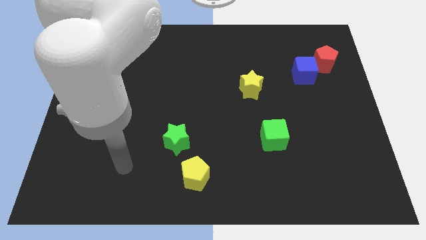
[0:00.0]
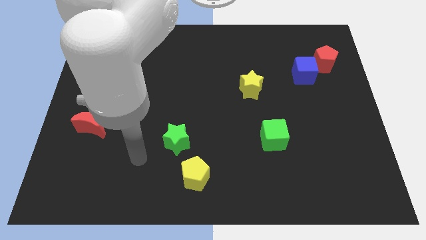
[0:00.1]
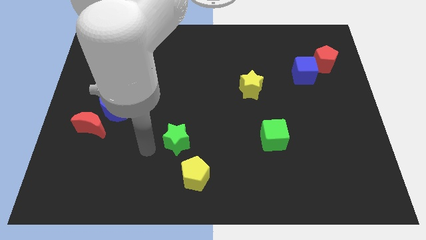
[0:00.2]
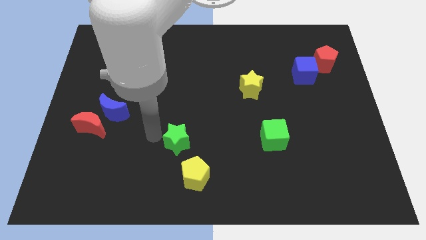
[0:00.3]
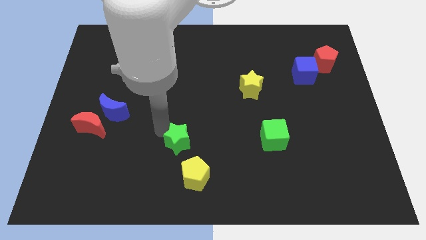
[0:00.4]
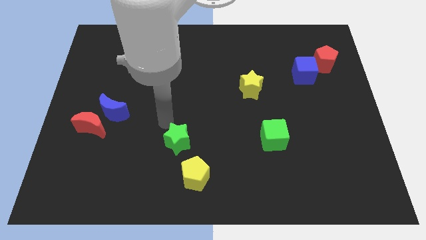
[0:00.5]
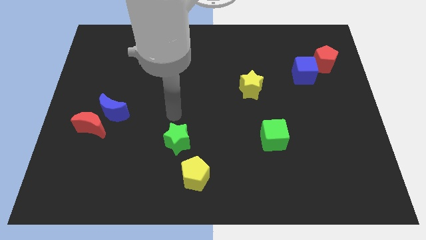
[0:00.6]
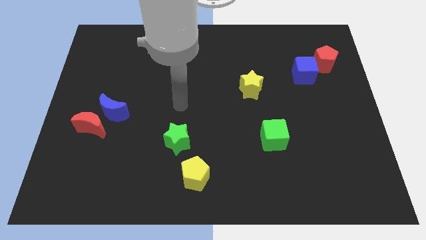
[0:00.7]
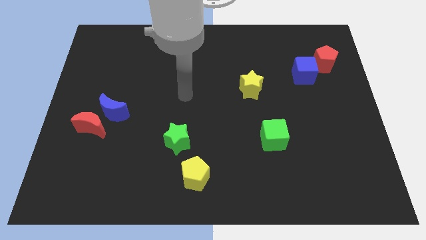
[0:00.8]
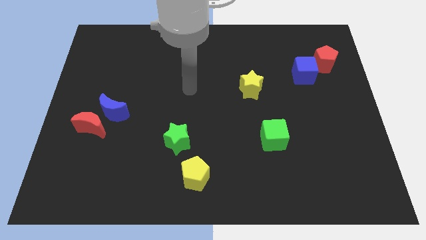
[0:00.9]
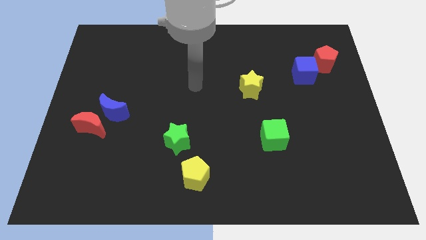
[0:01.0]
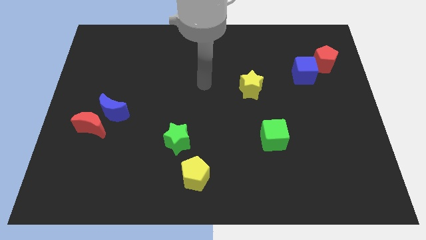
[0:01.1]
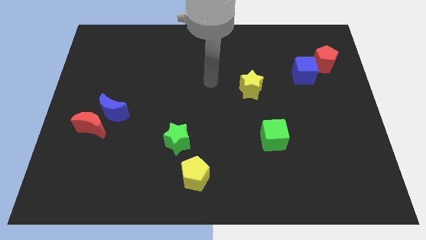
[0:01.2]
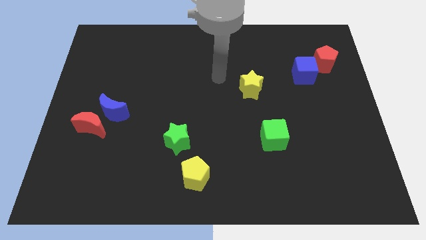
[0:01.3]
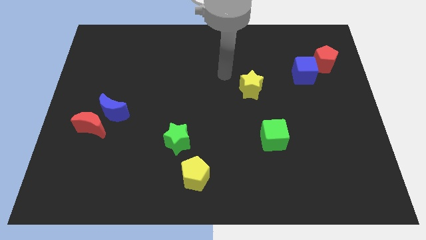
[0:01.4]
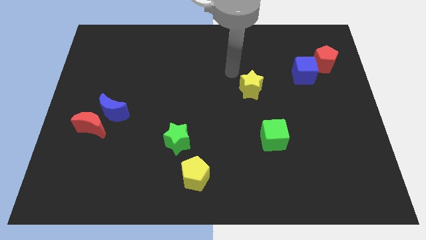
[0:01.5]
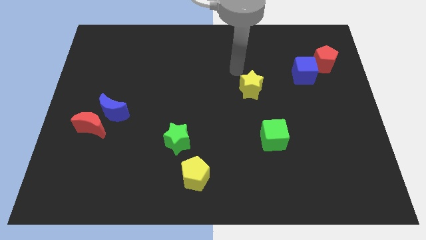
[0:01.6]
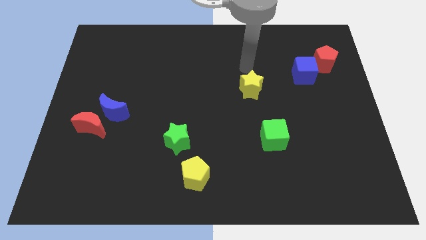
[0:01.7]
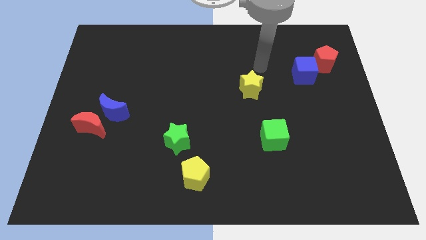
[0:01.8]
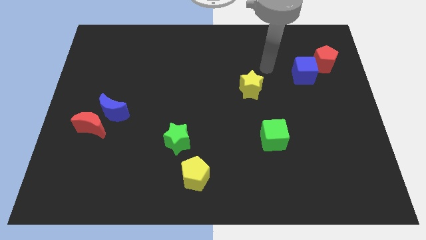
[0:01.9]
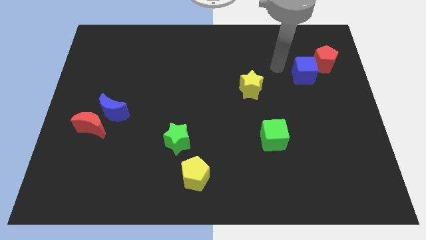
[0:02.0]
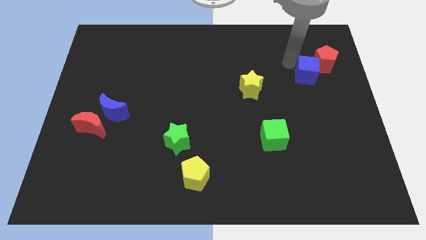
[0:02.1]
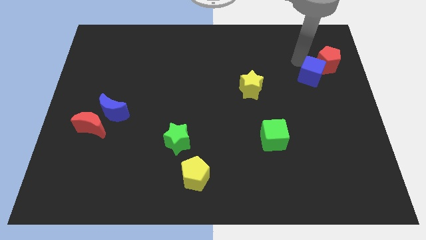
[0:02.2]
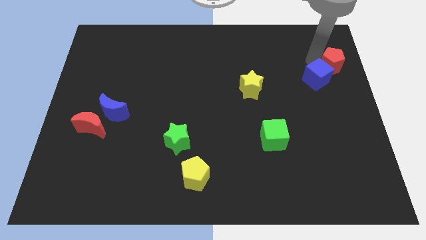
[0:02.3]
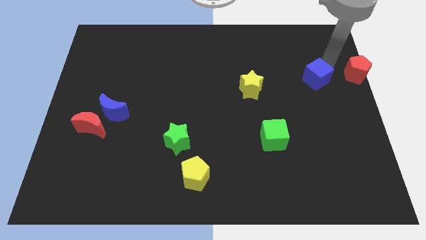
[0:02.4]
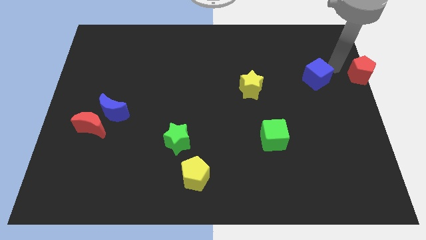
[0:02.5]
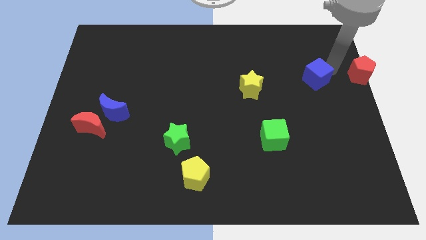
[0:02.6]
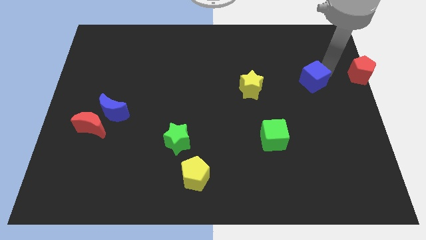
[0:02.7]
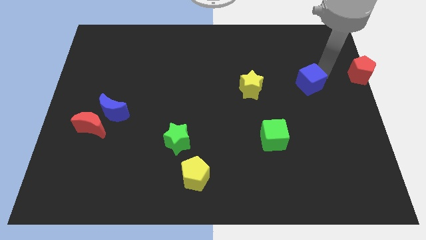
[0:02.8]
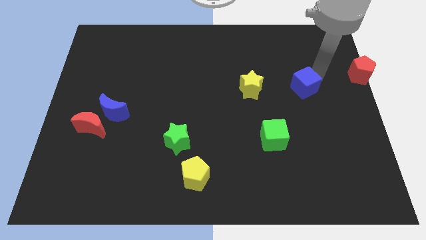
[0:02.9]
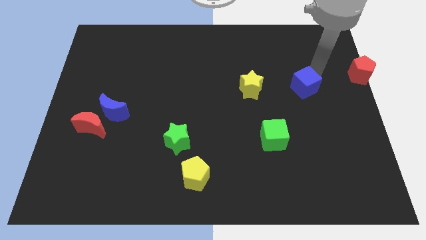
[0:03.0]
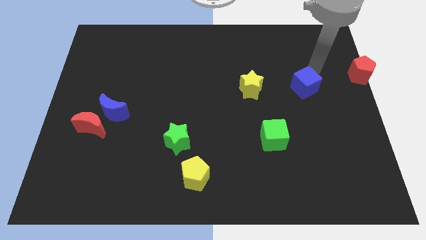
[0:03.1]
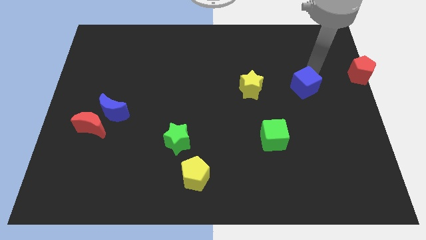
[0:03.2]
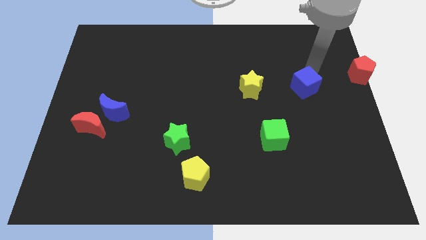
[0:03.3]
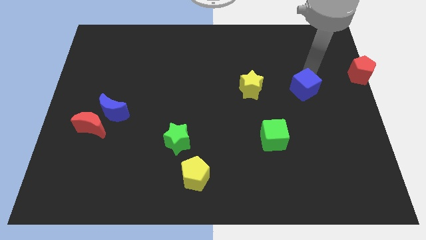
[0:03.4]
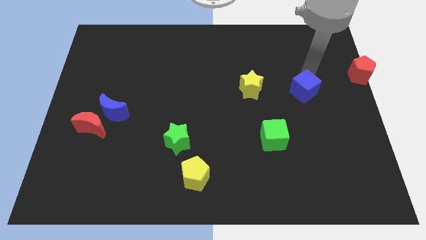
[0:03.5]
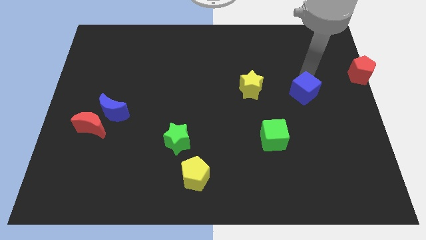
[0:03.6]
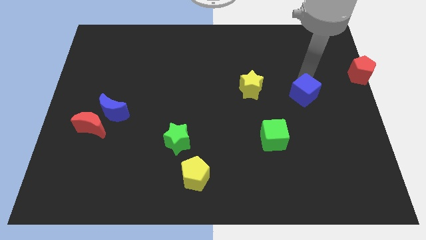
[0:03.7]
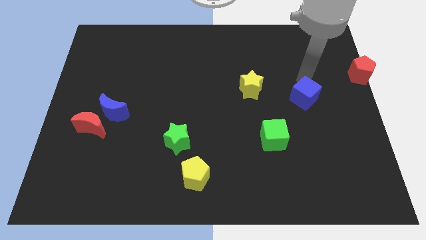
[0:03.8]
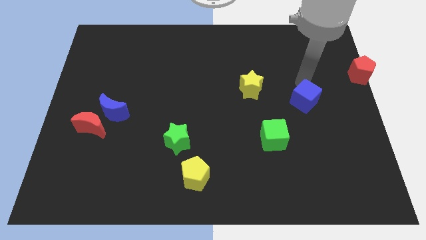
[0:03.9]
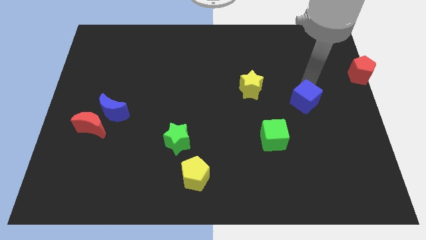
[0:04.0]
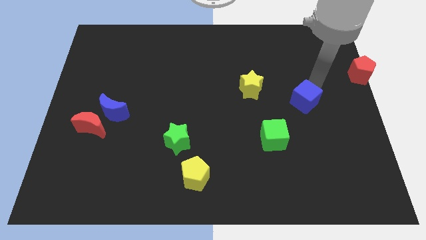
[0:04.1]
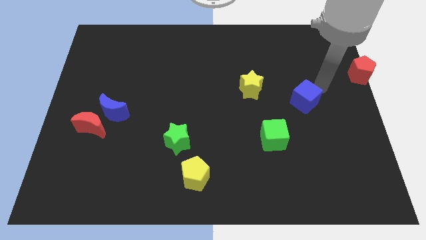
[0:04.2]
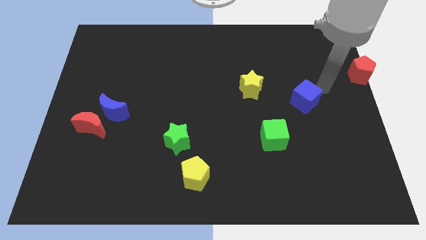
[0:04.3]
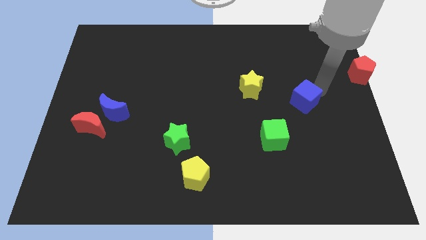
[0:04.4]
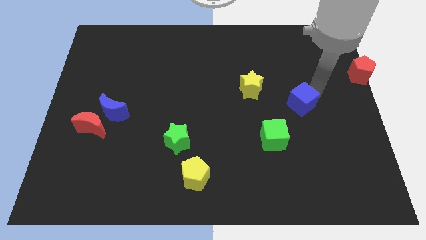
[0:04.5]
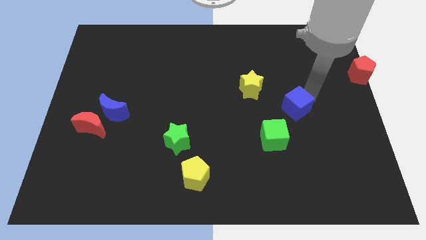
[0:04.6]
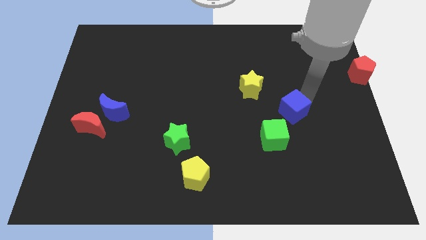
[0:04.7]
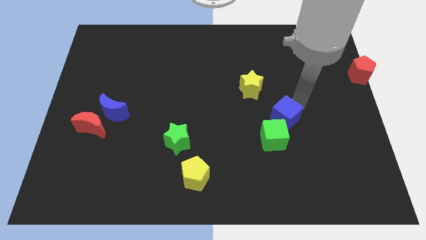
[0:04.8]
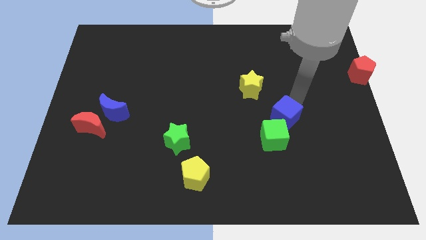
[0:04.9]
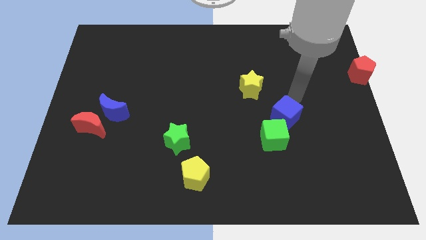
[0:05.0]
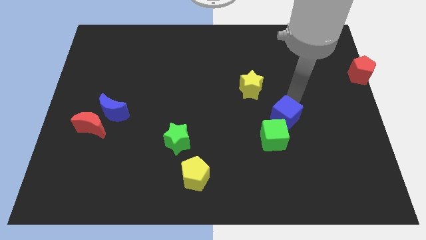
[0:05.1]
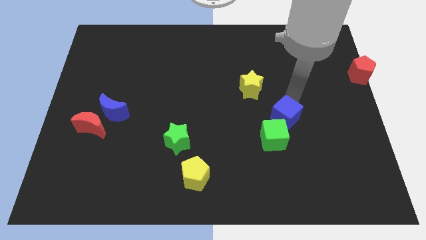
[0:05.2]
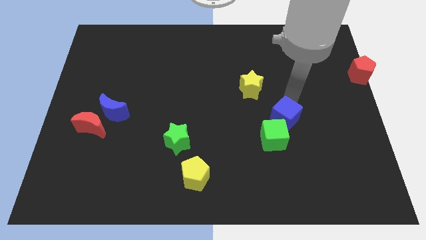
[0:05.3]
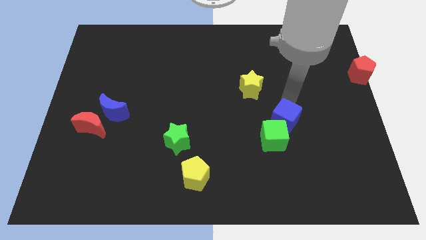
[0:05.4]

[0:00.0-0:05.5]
move the blue cube to the green cube
